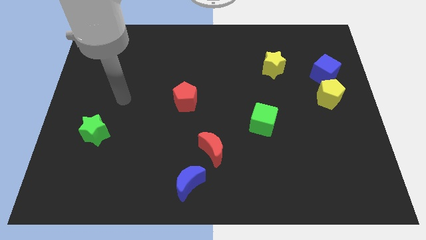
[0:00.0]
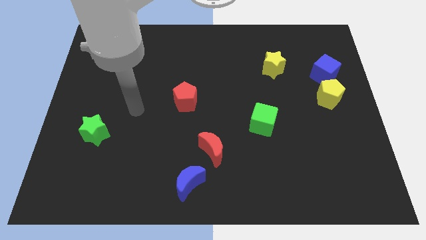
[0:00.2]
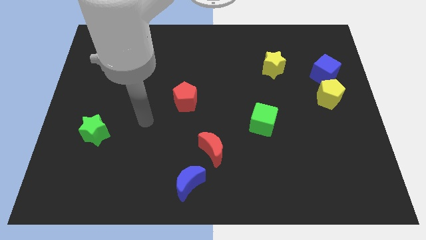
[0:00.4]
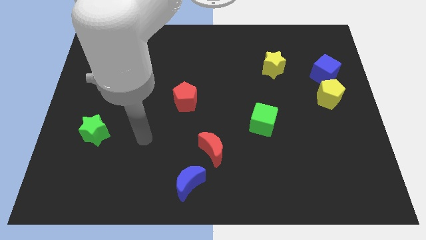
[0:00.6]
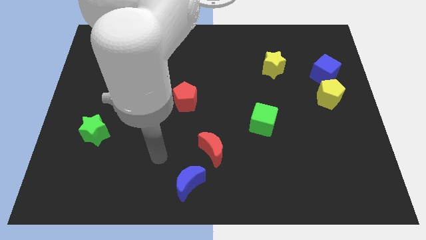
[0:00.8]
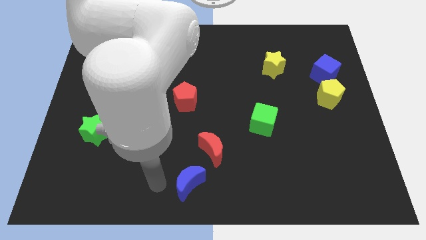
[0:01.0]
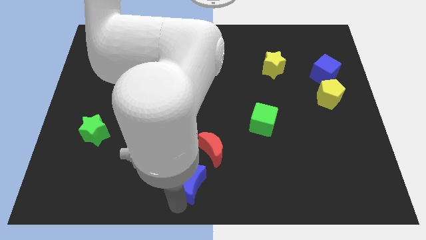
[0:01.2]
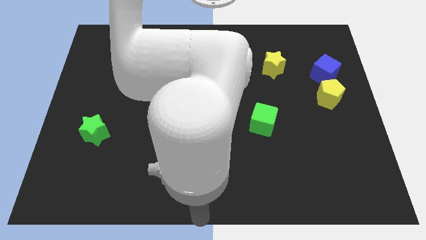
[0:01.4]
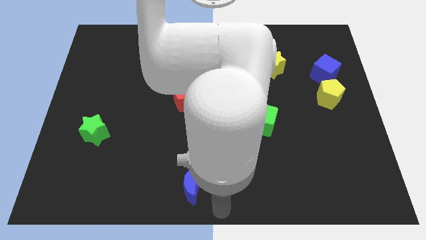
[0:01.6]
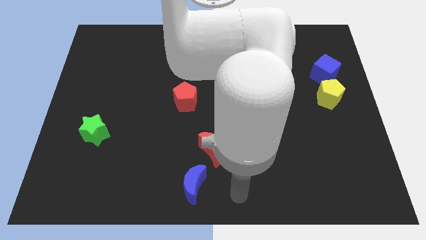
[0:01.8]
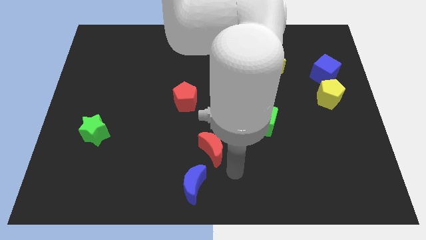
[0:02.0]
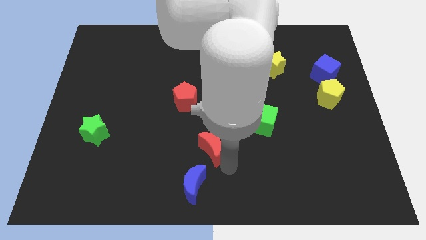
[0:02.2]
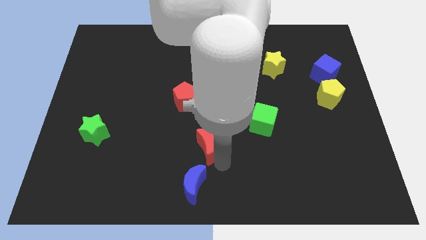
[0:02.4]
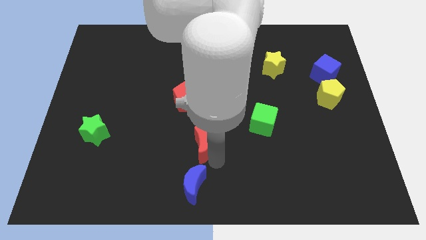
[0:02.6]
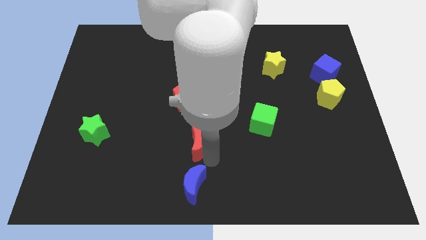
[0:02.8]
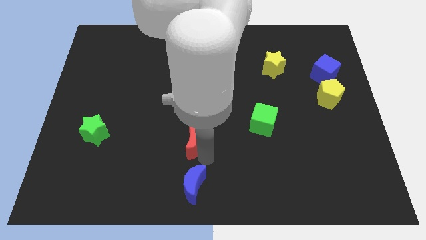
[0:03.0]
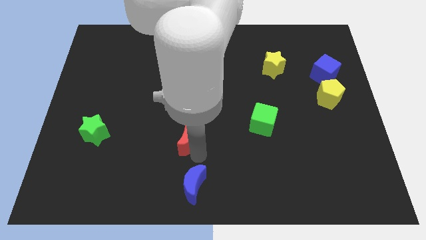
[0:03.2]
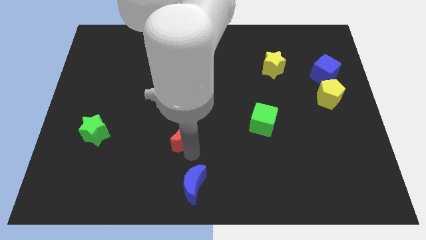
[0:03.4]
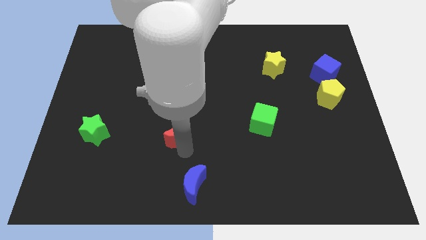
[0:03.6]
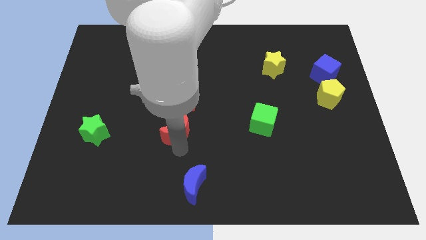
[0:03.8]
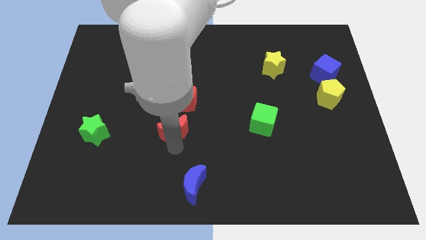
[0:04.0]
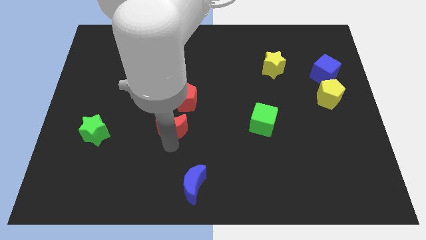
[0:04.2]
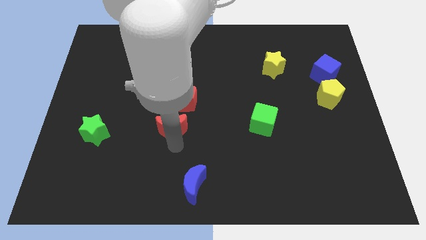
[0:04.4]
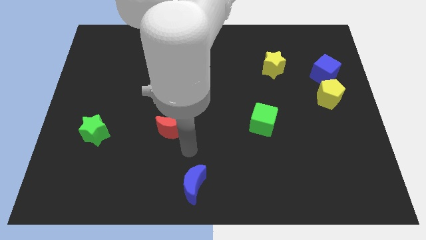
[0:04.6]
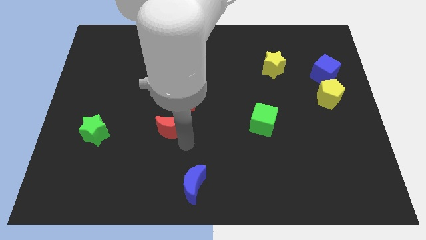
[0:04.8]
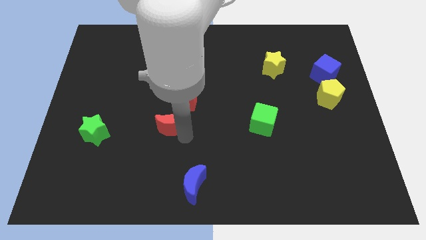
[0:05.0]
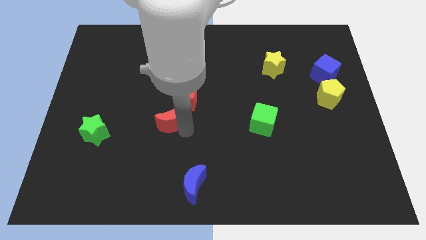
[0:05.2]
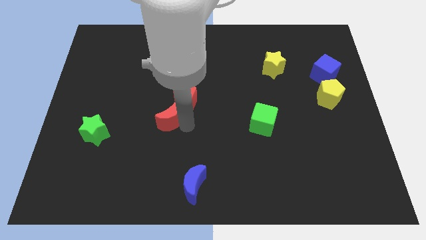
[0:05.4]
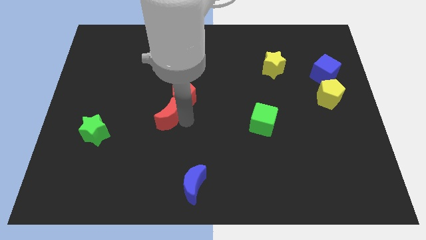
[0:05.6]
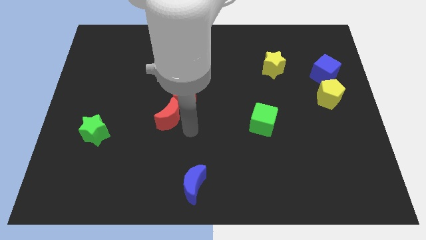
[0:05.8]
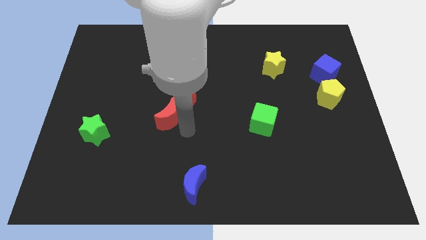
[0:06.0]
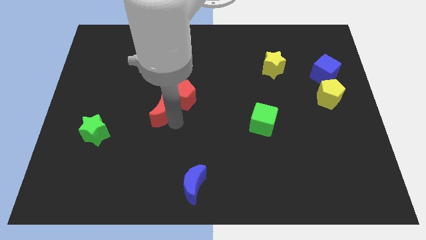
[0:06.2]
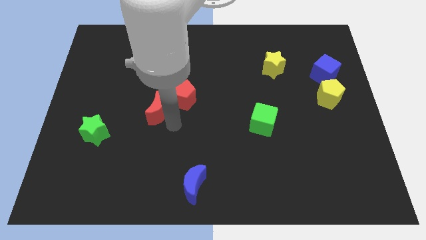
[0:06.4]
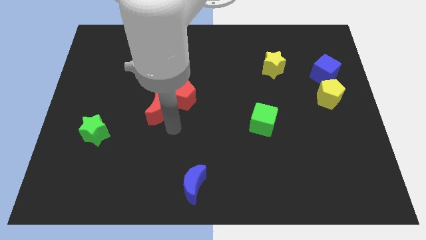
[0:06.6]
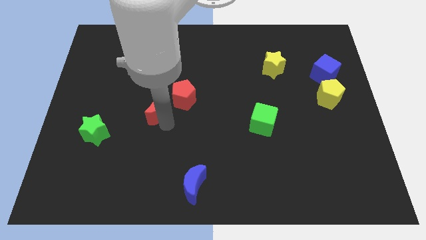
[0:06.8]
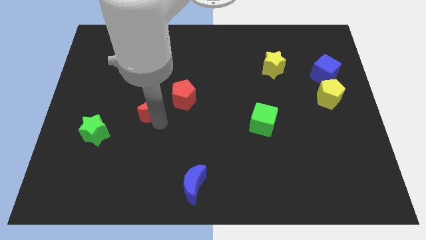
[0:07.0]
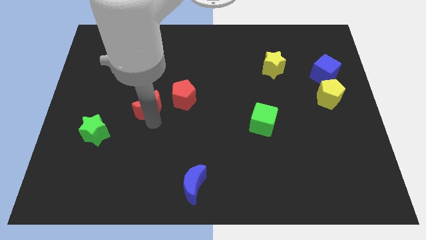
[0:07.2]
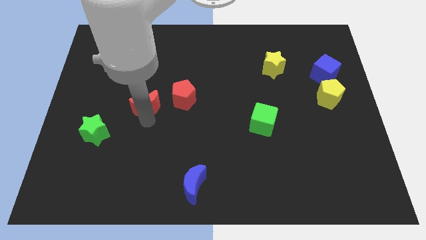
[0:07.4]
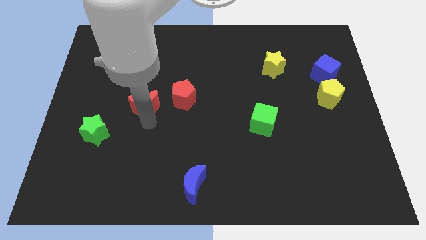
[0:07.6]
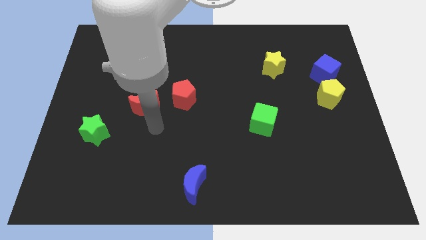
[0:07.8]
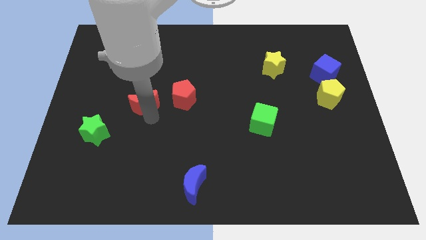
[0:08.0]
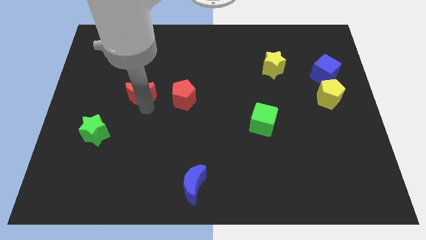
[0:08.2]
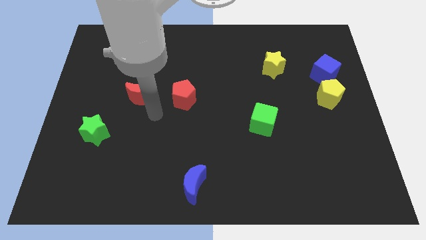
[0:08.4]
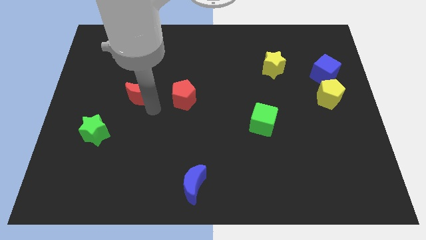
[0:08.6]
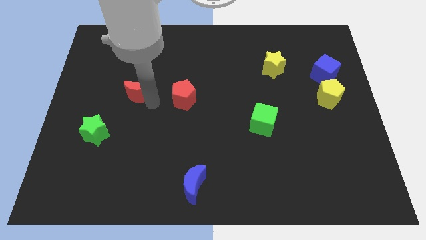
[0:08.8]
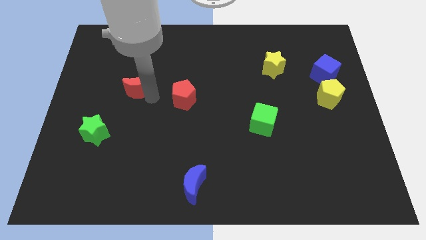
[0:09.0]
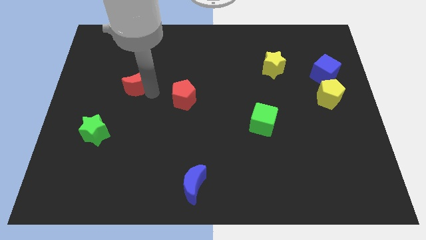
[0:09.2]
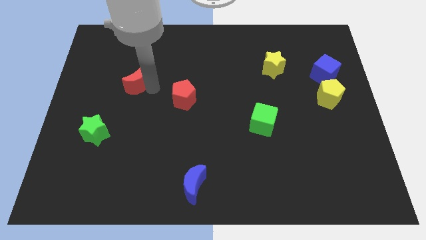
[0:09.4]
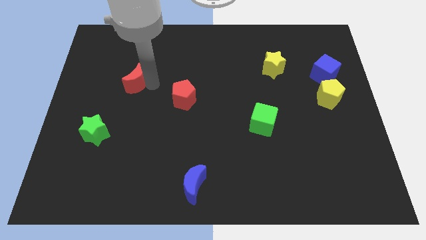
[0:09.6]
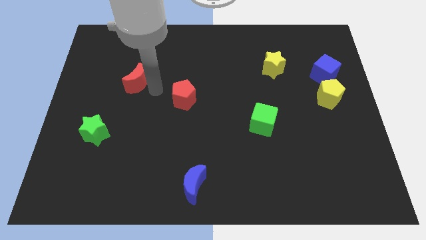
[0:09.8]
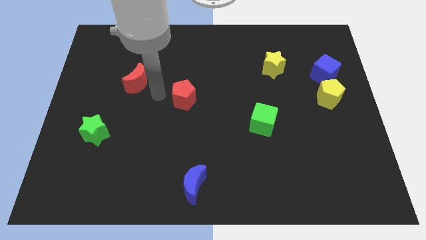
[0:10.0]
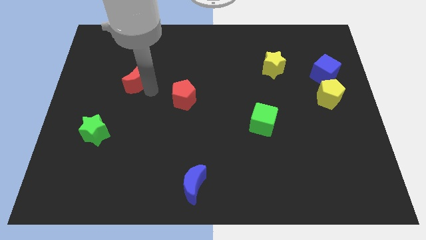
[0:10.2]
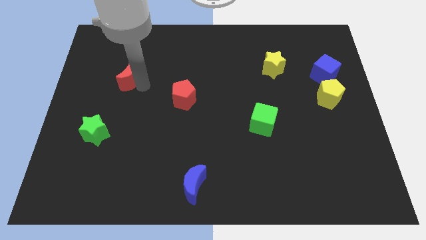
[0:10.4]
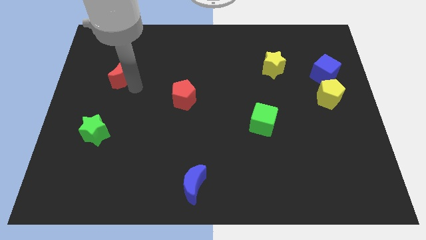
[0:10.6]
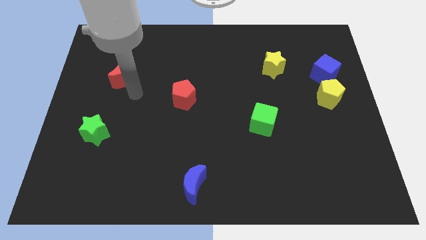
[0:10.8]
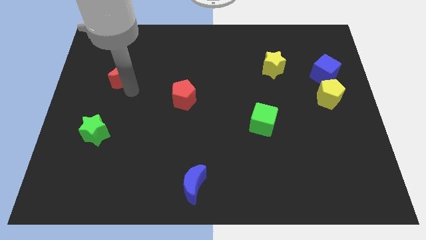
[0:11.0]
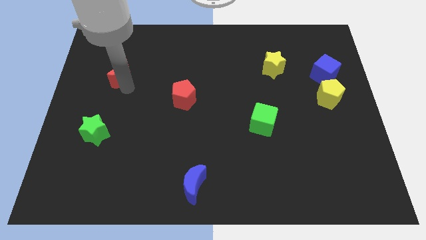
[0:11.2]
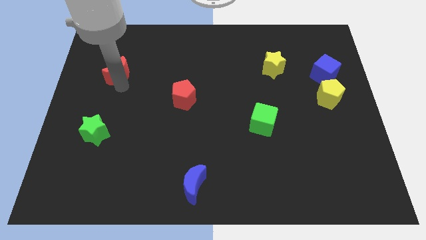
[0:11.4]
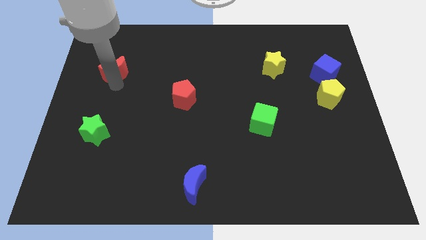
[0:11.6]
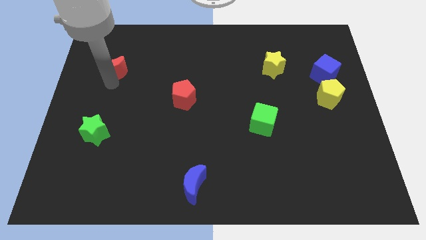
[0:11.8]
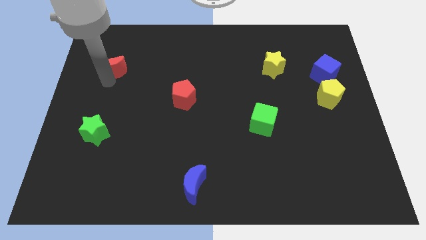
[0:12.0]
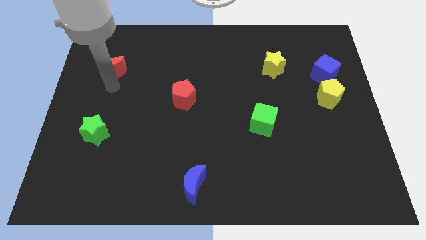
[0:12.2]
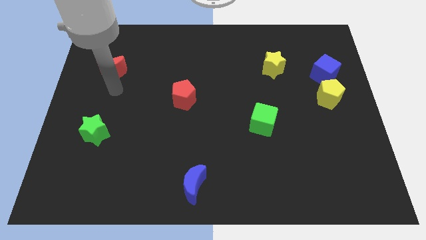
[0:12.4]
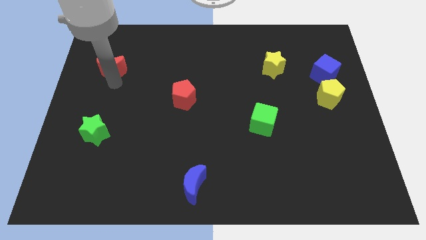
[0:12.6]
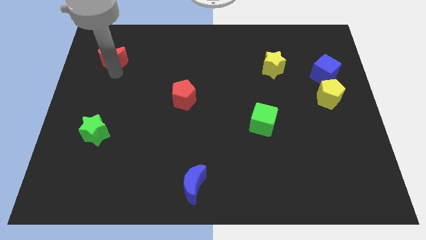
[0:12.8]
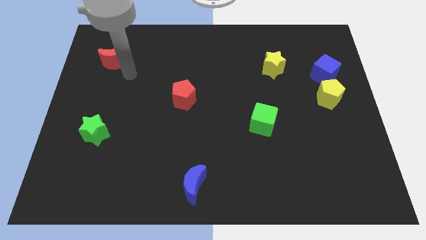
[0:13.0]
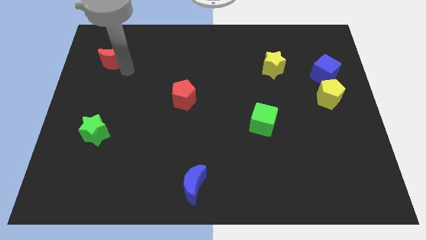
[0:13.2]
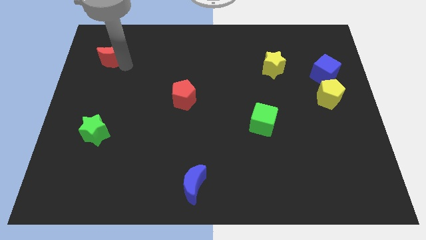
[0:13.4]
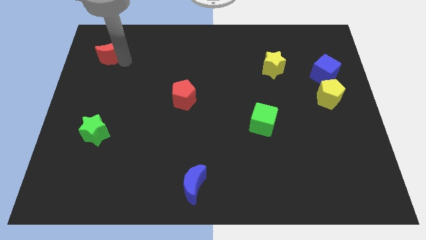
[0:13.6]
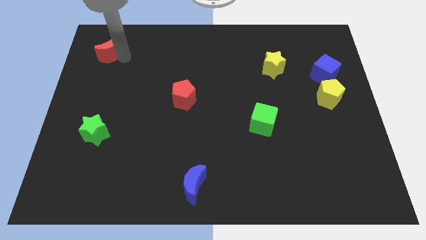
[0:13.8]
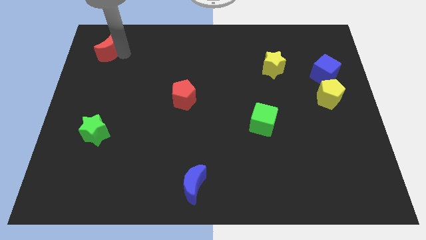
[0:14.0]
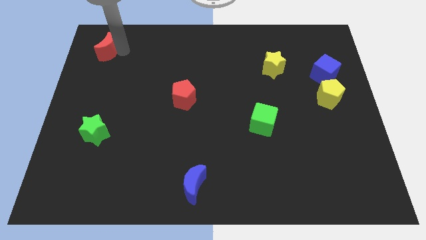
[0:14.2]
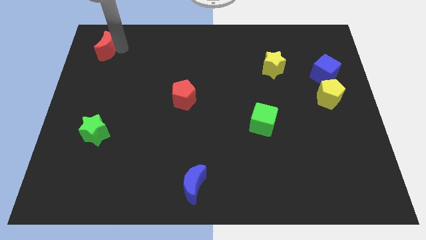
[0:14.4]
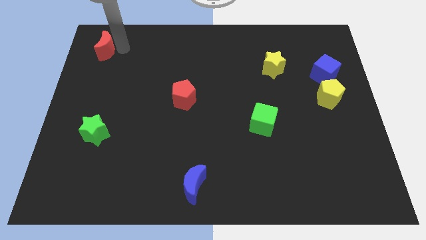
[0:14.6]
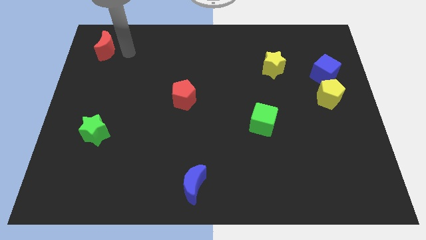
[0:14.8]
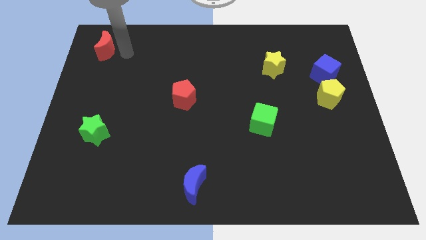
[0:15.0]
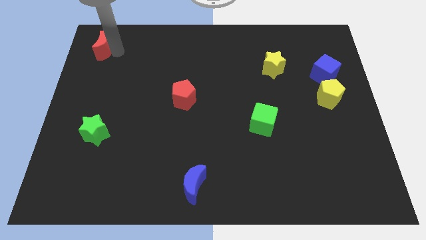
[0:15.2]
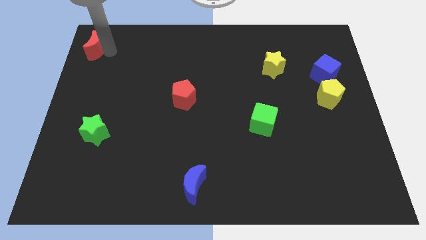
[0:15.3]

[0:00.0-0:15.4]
slide the red moon to the upper left corner
